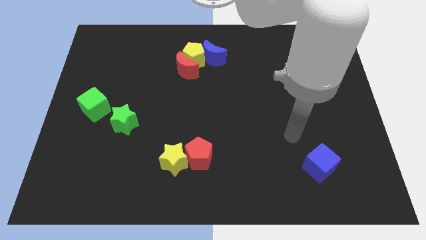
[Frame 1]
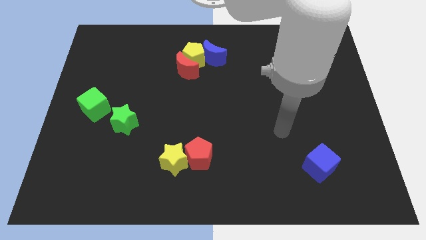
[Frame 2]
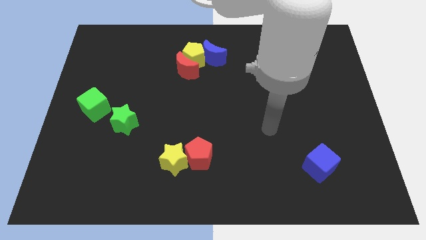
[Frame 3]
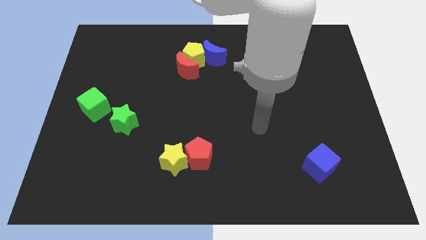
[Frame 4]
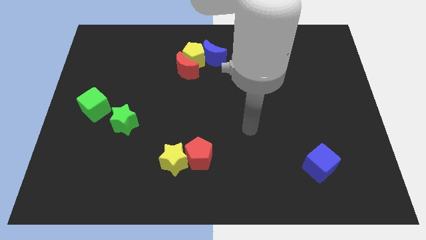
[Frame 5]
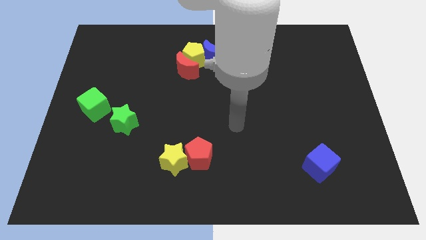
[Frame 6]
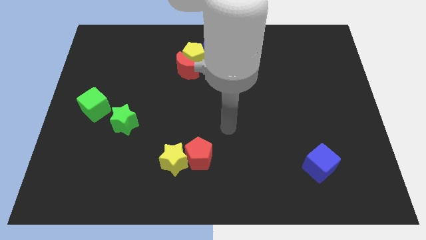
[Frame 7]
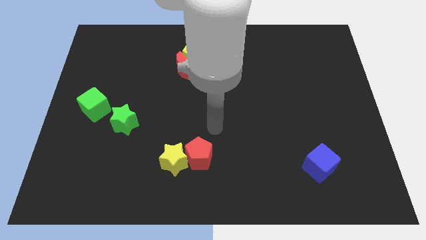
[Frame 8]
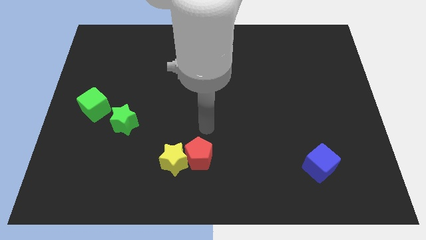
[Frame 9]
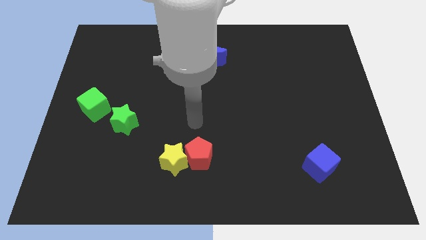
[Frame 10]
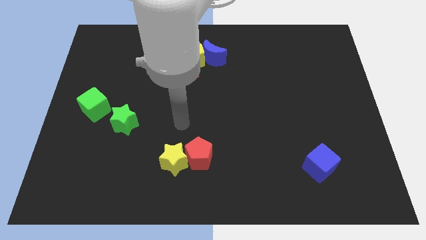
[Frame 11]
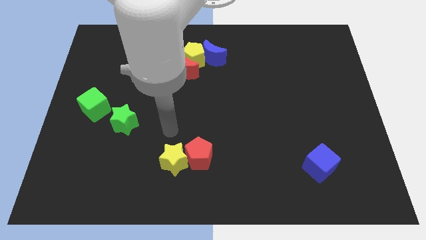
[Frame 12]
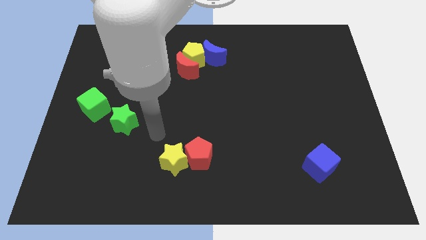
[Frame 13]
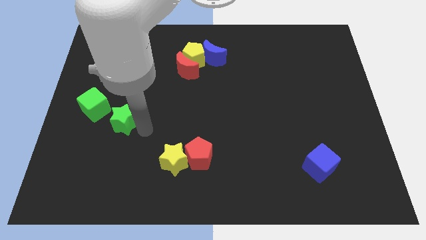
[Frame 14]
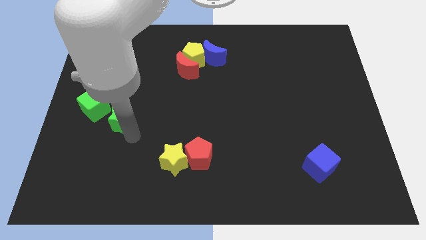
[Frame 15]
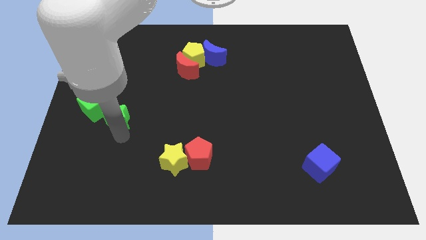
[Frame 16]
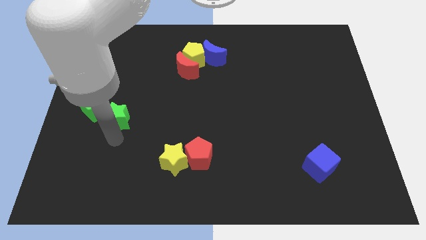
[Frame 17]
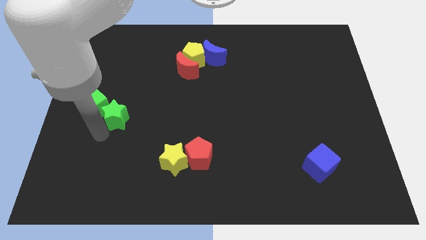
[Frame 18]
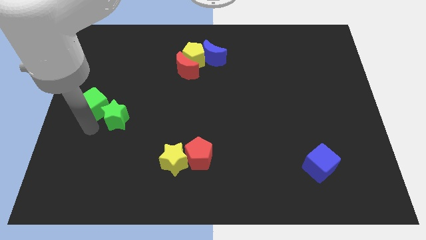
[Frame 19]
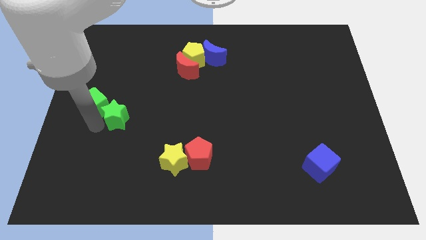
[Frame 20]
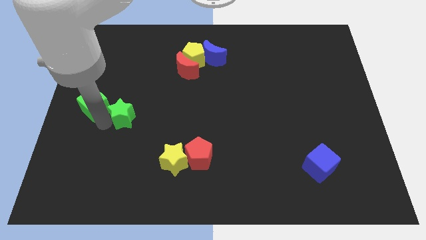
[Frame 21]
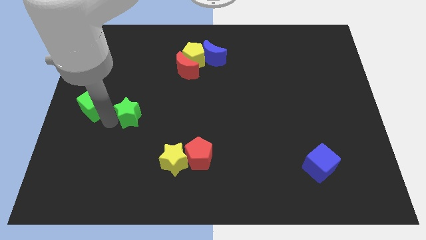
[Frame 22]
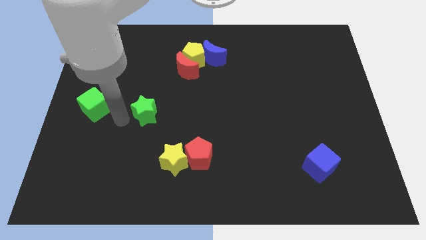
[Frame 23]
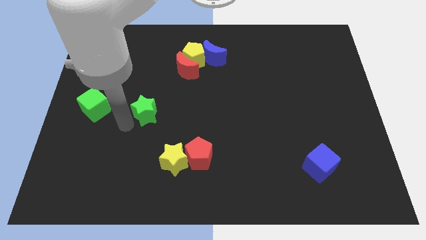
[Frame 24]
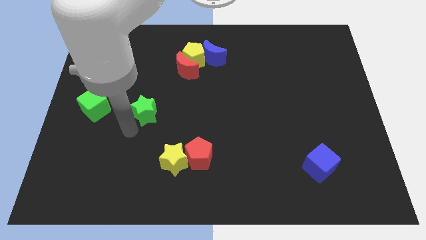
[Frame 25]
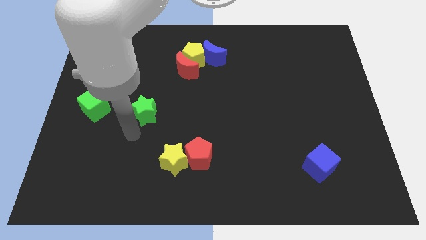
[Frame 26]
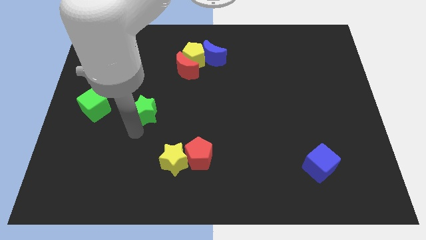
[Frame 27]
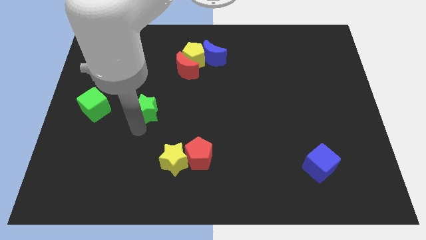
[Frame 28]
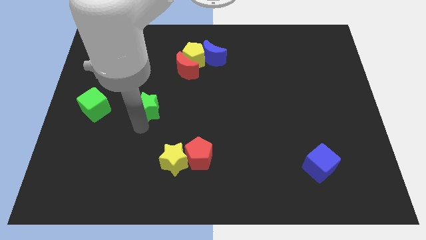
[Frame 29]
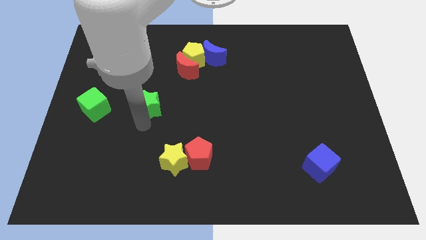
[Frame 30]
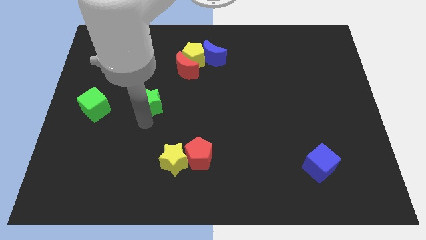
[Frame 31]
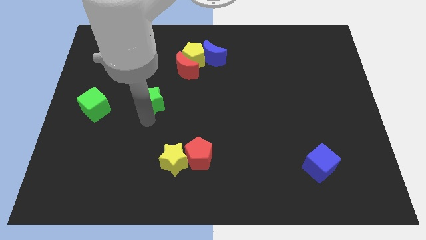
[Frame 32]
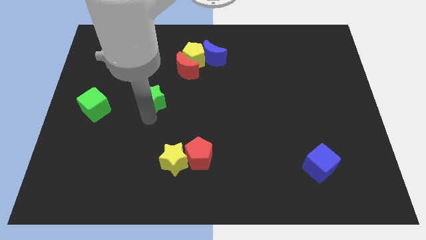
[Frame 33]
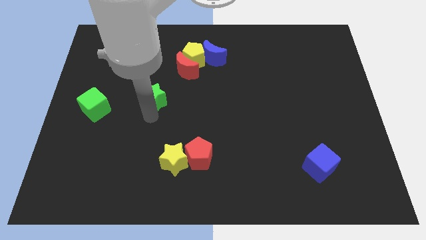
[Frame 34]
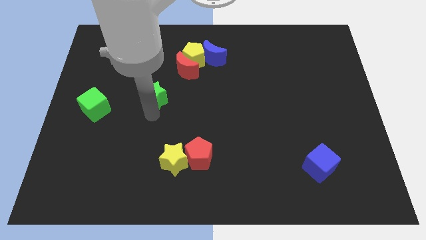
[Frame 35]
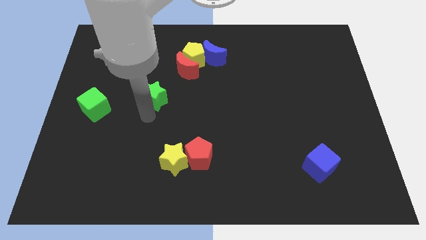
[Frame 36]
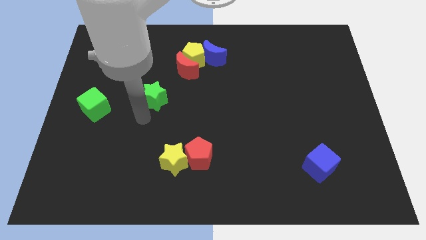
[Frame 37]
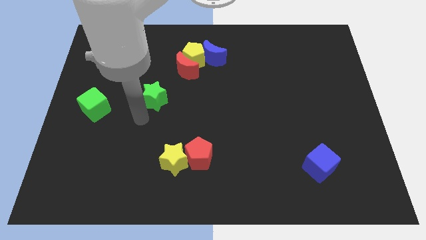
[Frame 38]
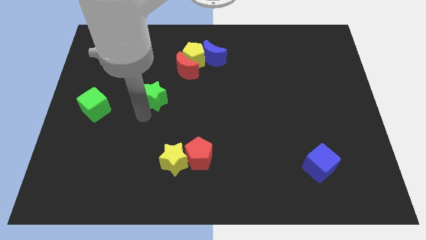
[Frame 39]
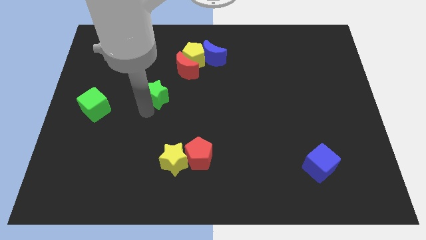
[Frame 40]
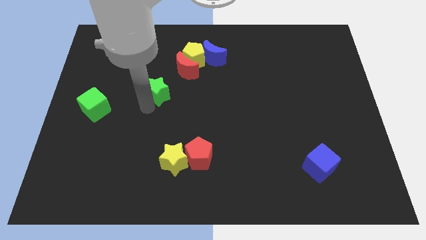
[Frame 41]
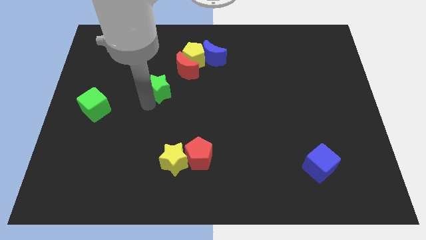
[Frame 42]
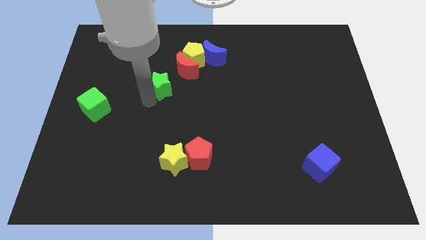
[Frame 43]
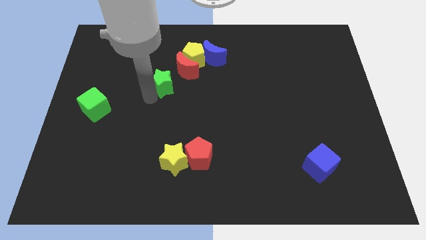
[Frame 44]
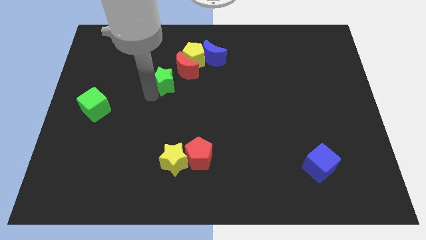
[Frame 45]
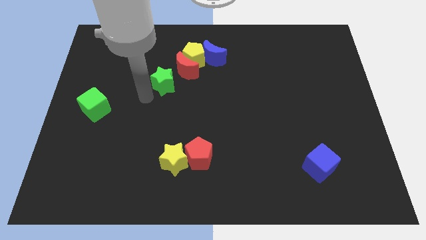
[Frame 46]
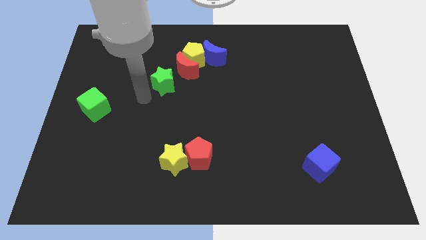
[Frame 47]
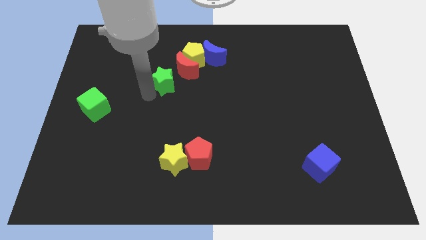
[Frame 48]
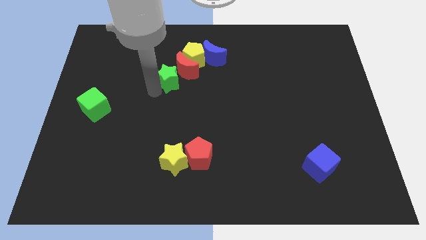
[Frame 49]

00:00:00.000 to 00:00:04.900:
slide the green star towards the red moon

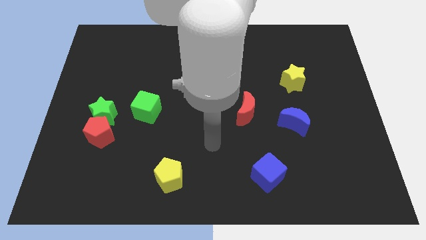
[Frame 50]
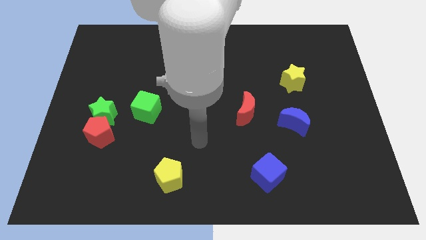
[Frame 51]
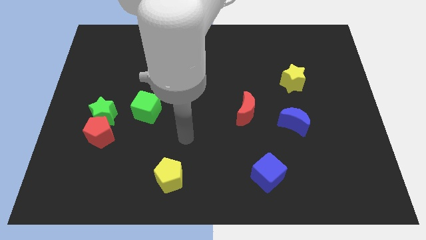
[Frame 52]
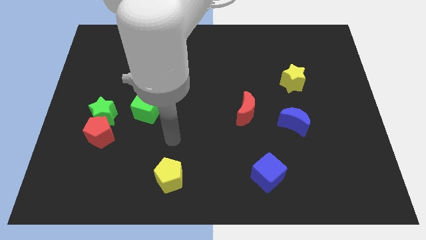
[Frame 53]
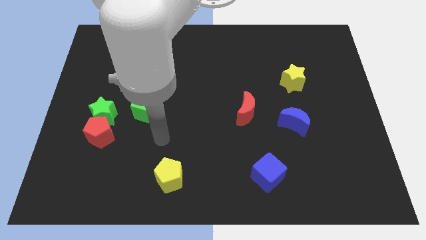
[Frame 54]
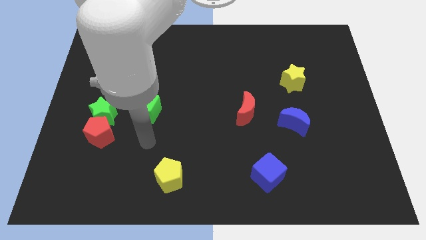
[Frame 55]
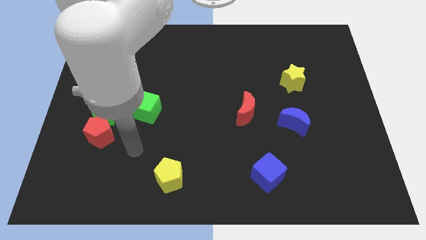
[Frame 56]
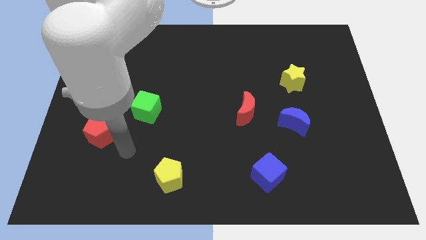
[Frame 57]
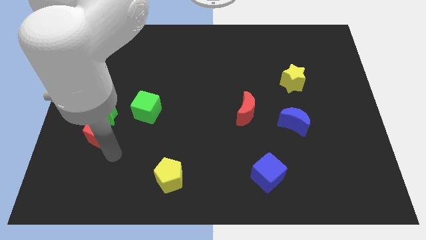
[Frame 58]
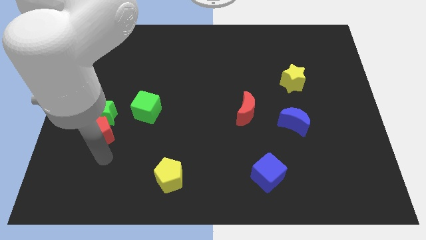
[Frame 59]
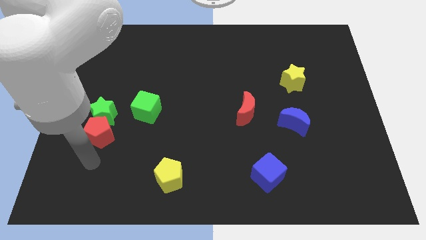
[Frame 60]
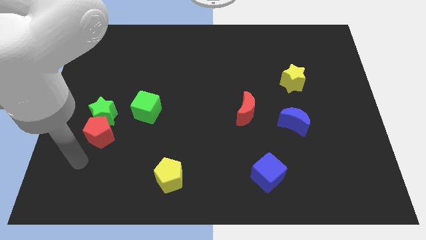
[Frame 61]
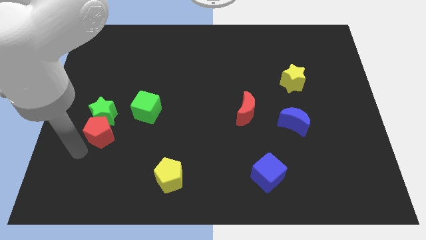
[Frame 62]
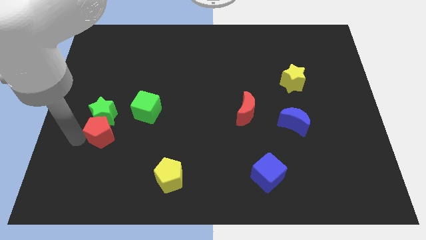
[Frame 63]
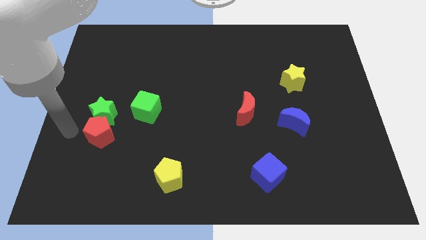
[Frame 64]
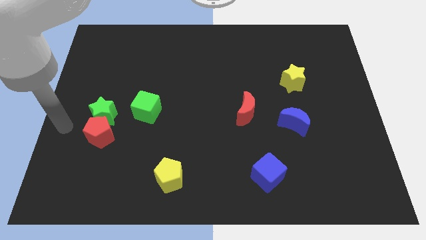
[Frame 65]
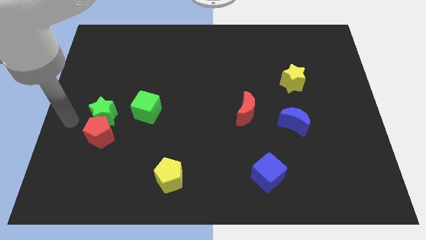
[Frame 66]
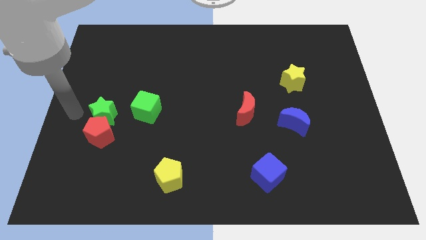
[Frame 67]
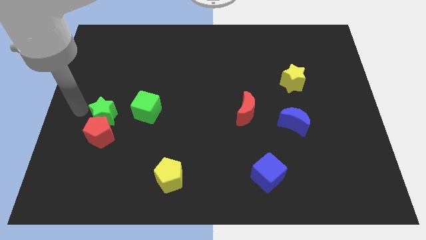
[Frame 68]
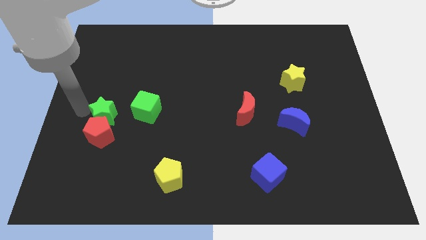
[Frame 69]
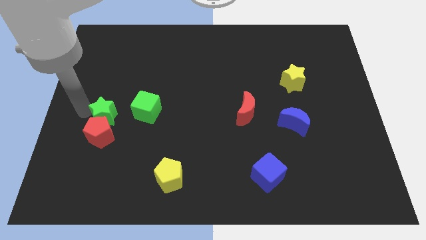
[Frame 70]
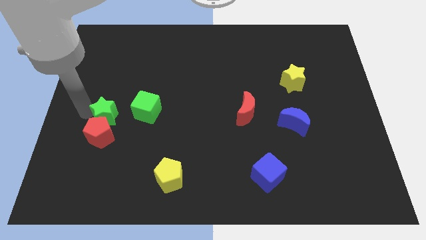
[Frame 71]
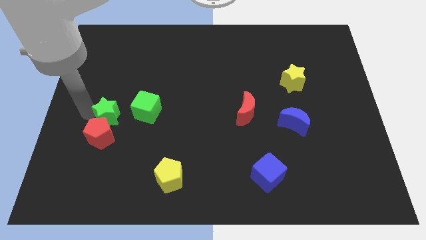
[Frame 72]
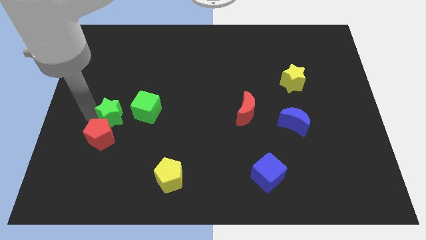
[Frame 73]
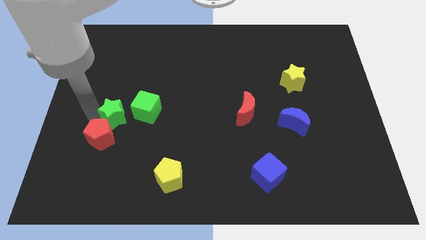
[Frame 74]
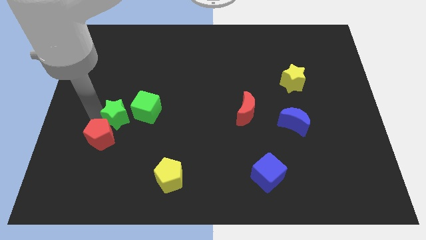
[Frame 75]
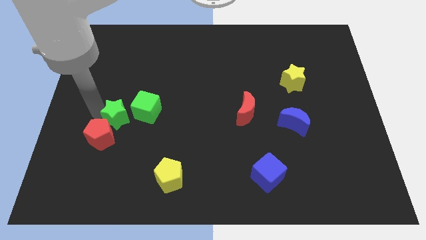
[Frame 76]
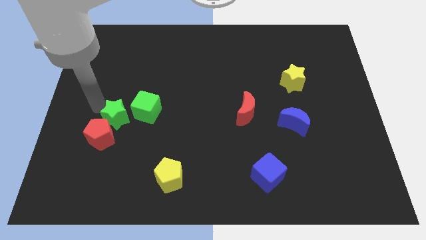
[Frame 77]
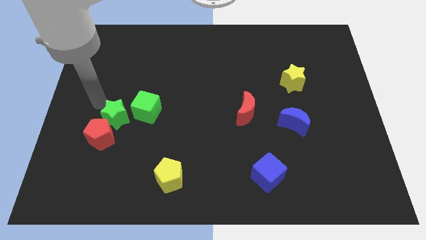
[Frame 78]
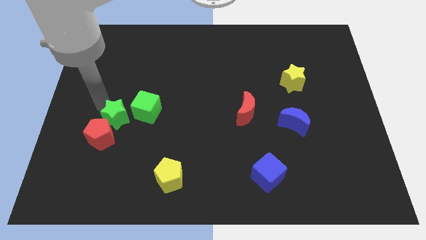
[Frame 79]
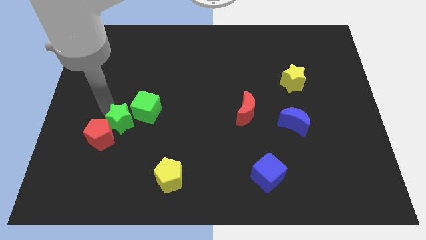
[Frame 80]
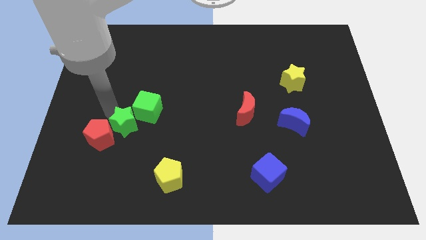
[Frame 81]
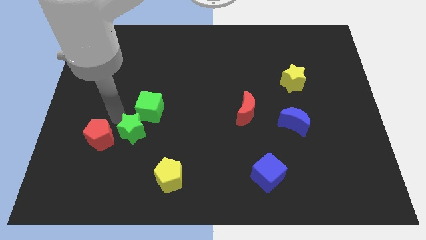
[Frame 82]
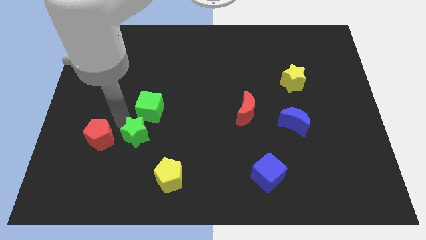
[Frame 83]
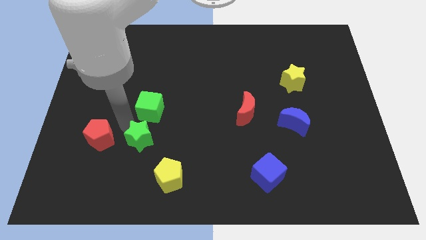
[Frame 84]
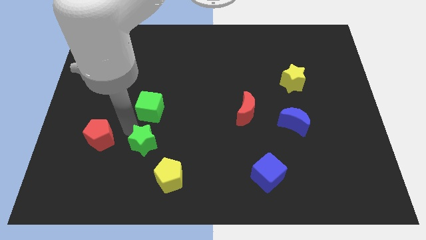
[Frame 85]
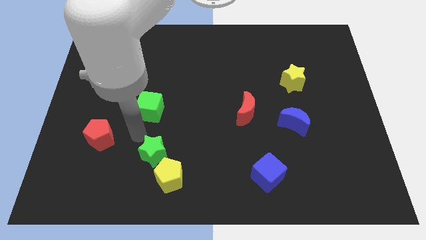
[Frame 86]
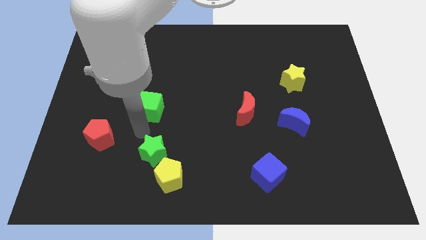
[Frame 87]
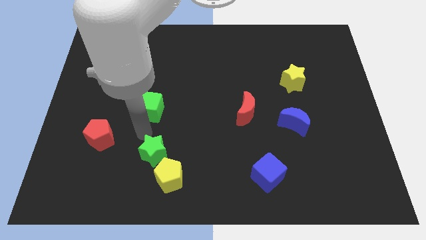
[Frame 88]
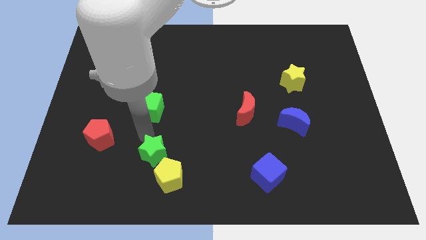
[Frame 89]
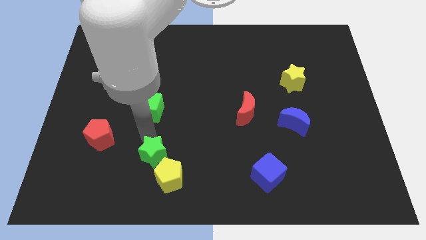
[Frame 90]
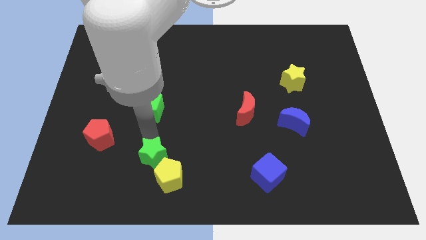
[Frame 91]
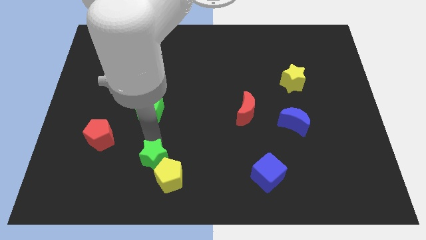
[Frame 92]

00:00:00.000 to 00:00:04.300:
slide the green star to the yellow pentagon
